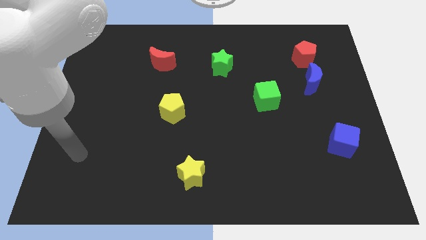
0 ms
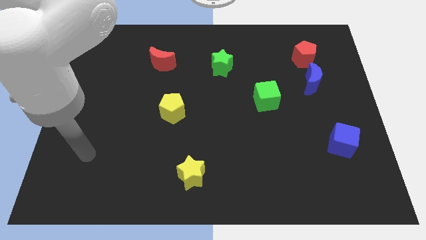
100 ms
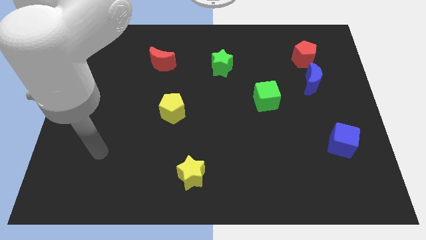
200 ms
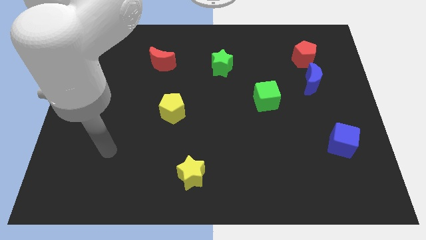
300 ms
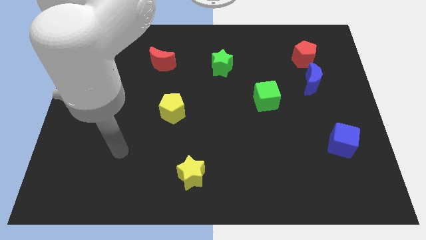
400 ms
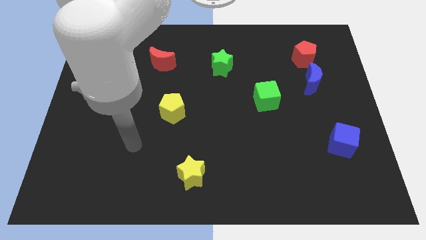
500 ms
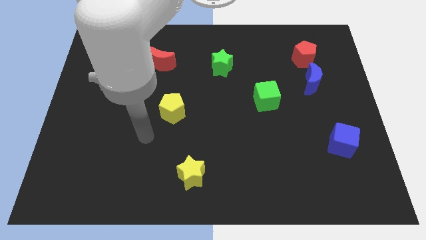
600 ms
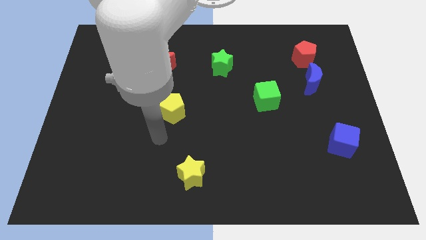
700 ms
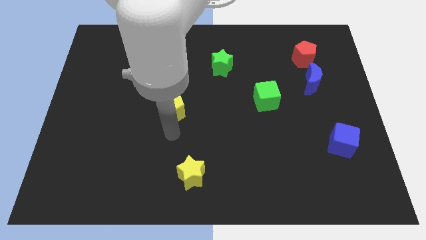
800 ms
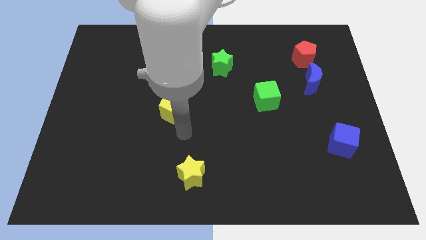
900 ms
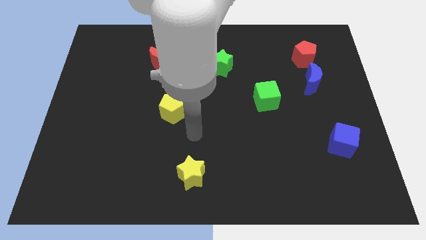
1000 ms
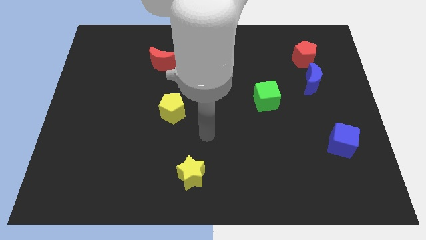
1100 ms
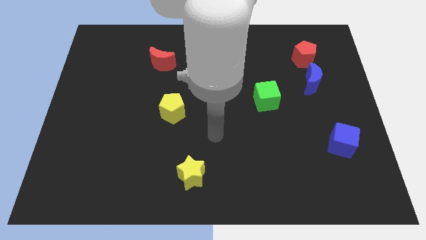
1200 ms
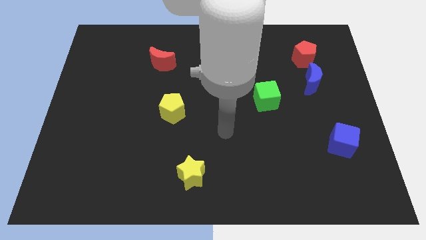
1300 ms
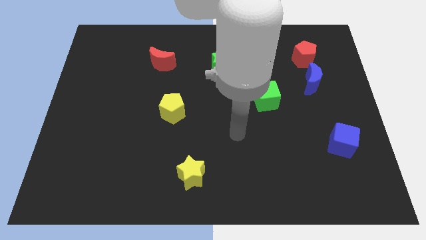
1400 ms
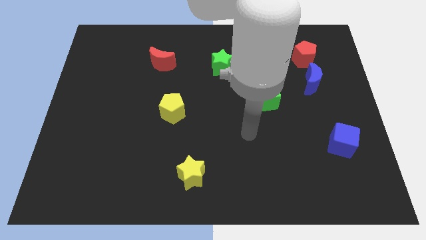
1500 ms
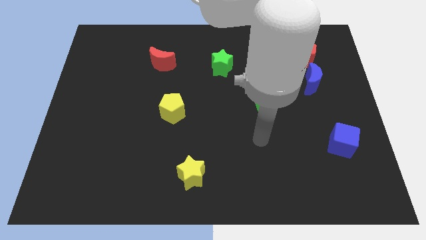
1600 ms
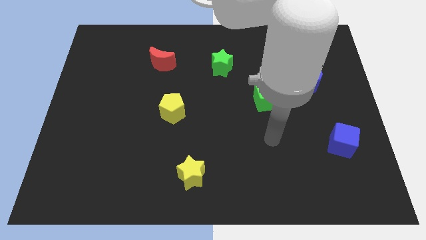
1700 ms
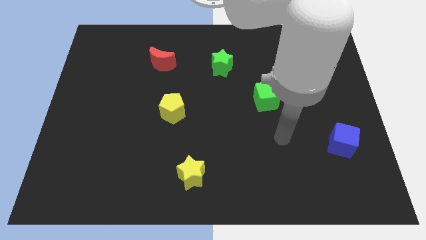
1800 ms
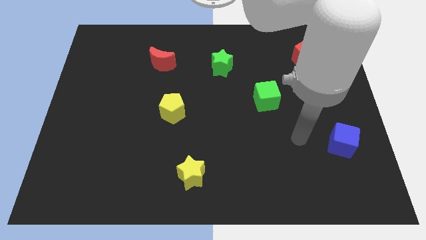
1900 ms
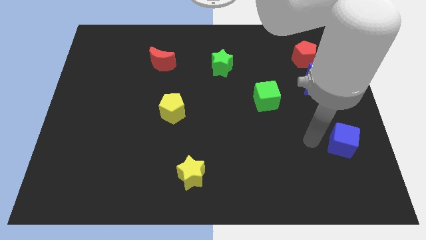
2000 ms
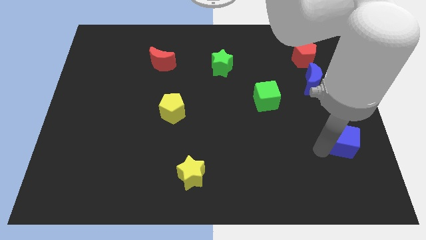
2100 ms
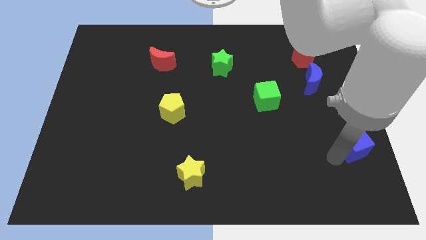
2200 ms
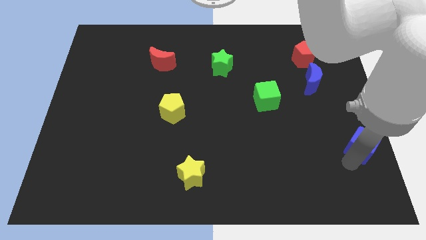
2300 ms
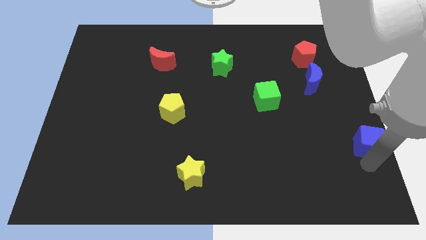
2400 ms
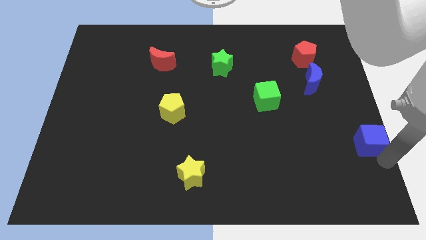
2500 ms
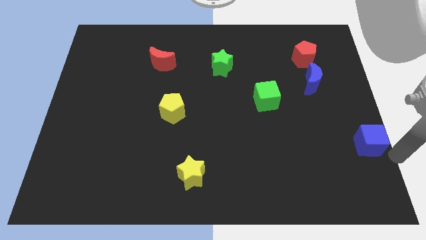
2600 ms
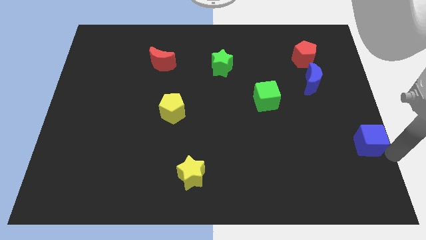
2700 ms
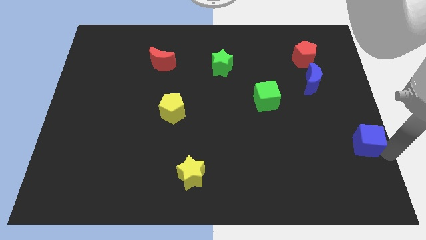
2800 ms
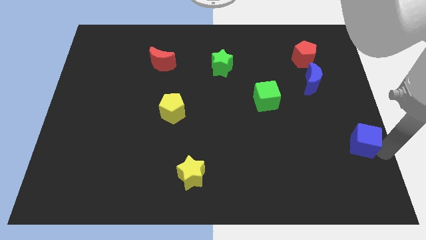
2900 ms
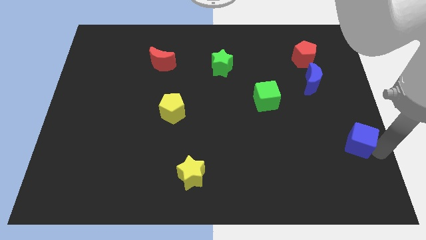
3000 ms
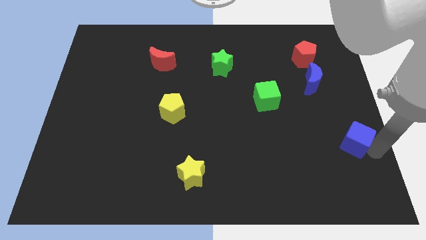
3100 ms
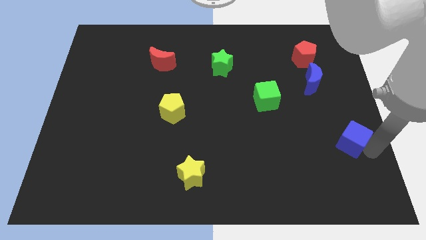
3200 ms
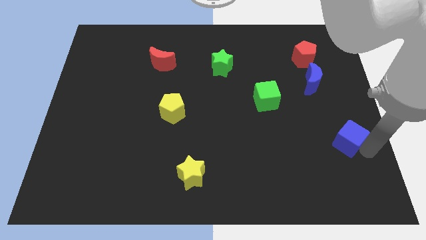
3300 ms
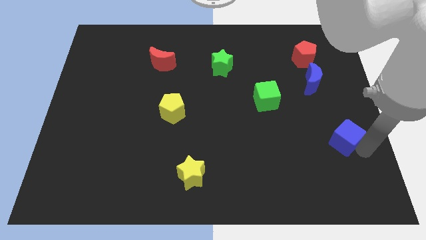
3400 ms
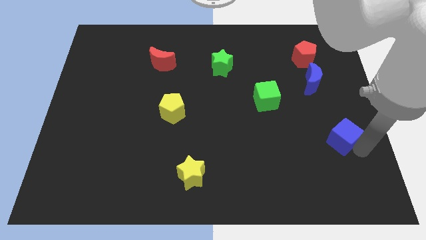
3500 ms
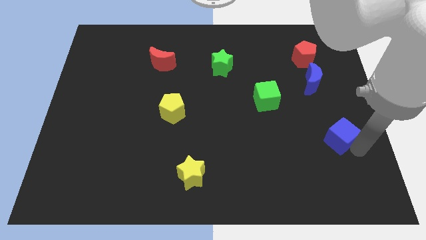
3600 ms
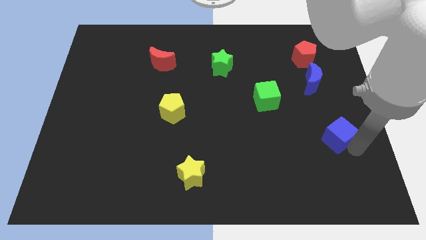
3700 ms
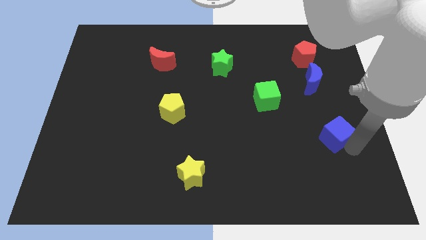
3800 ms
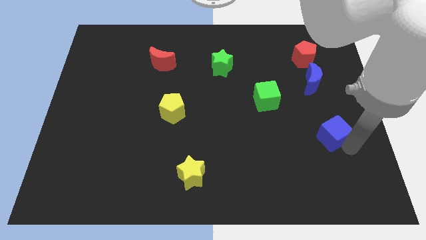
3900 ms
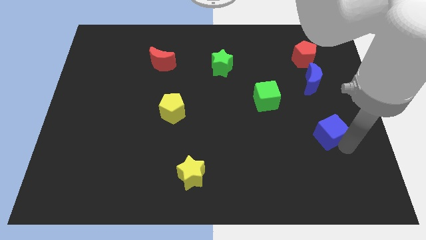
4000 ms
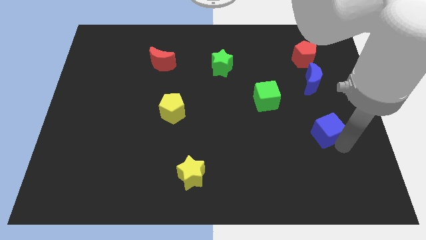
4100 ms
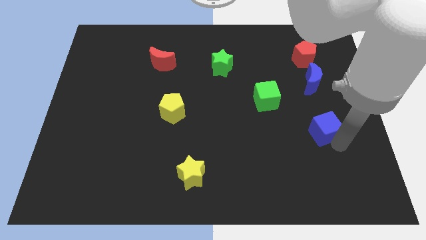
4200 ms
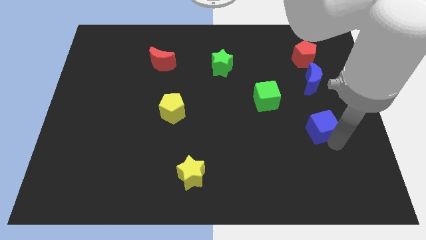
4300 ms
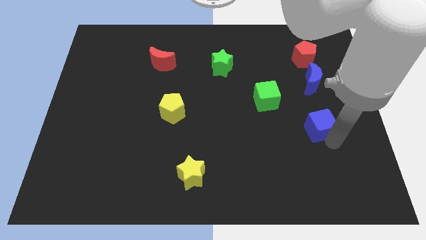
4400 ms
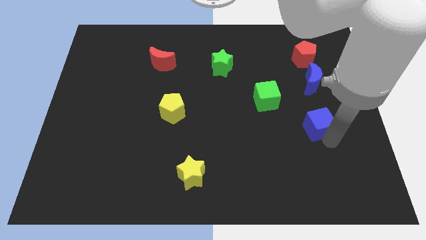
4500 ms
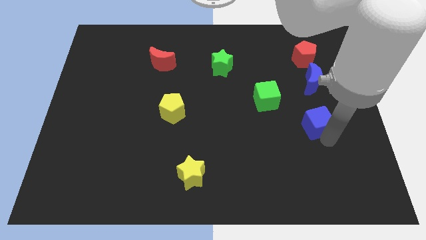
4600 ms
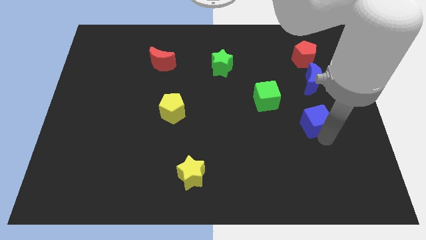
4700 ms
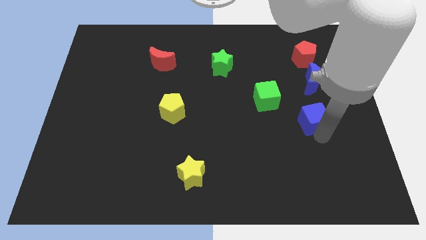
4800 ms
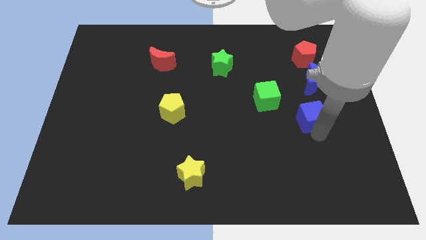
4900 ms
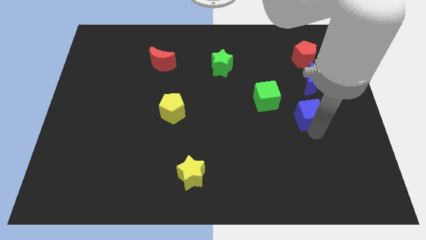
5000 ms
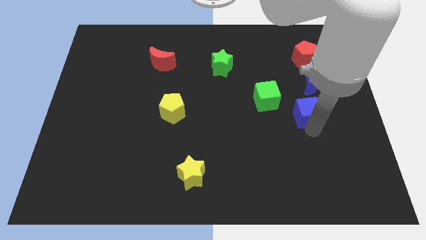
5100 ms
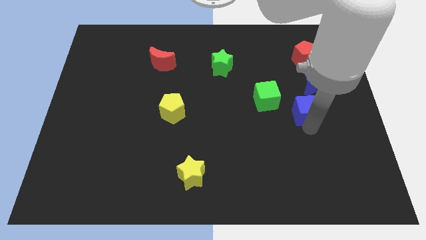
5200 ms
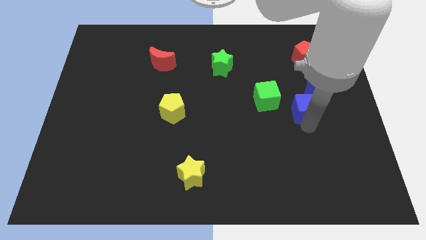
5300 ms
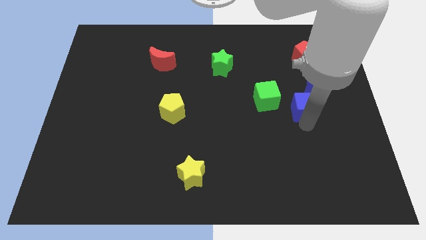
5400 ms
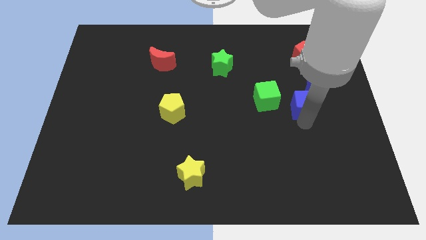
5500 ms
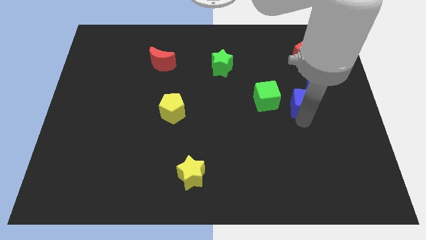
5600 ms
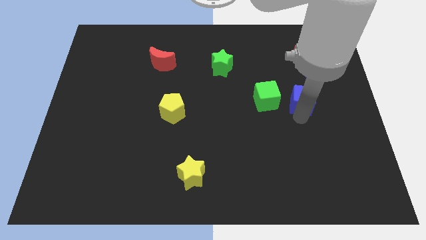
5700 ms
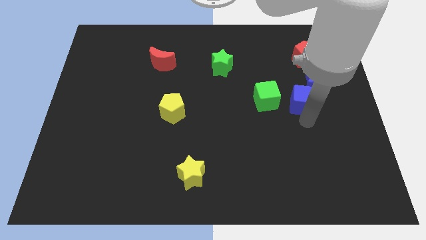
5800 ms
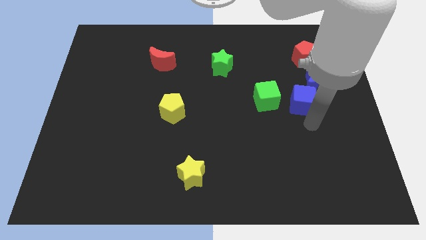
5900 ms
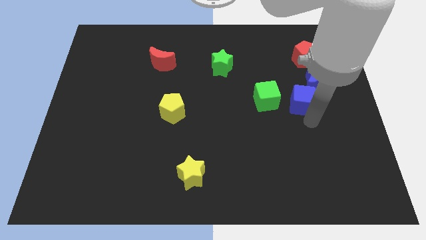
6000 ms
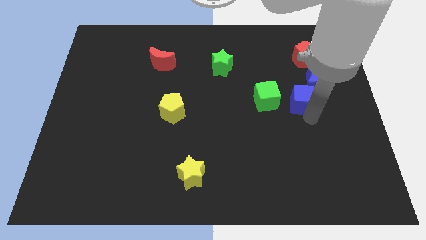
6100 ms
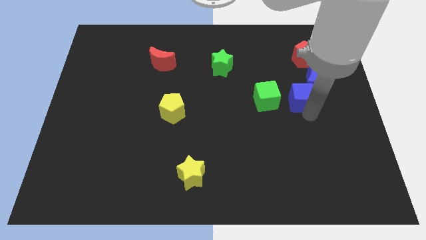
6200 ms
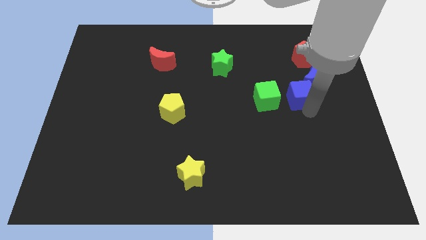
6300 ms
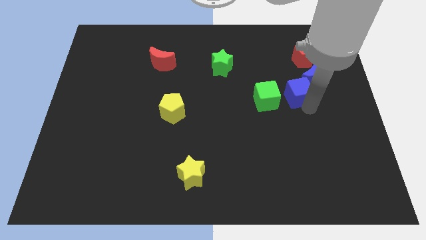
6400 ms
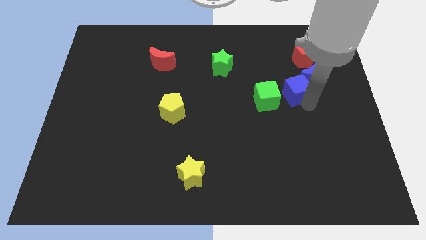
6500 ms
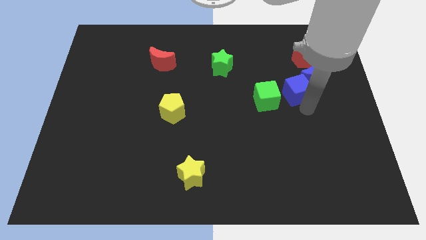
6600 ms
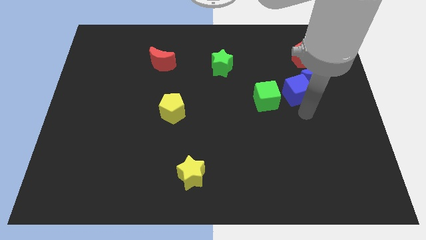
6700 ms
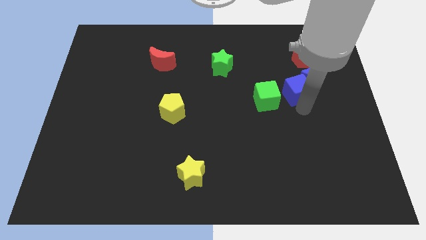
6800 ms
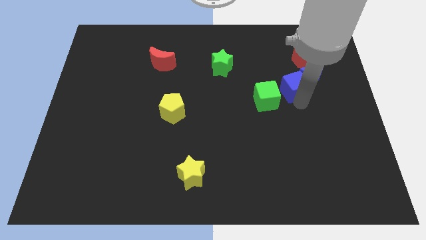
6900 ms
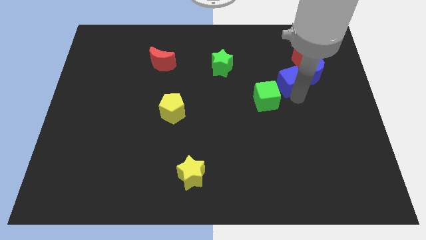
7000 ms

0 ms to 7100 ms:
put the blue cube to the bottom left side of the red pentagon

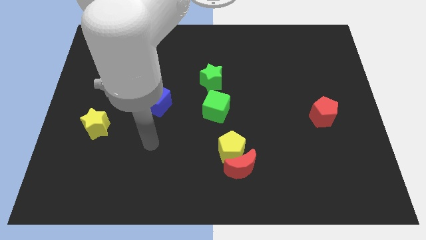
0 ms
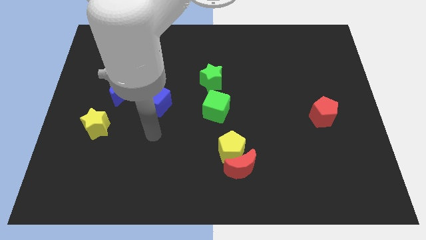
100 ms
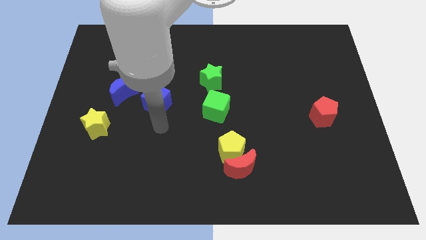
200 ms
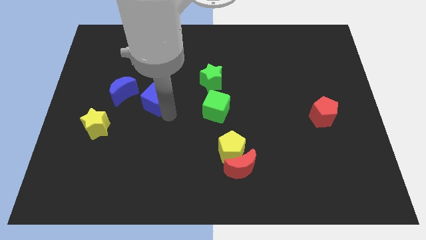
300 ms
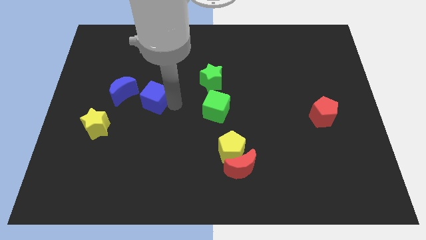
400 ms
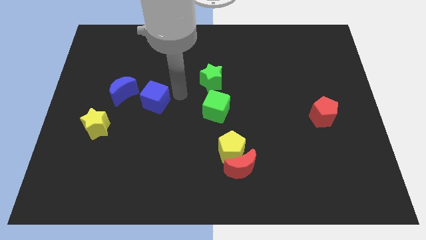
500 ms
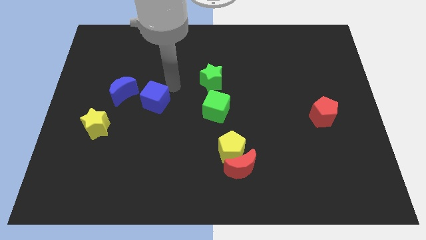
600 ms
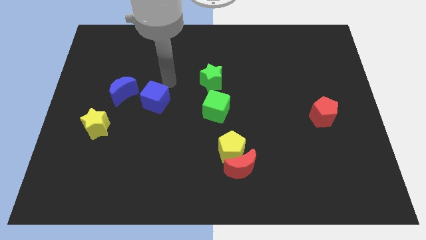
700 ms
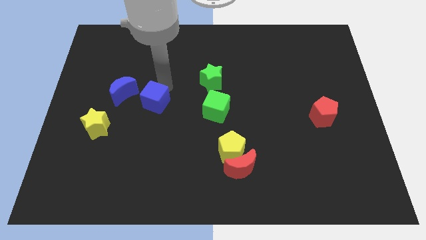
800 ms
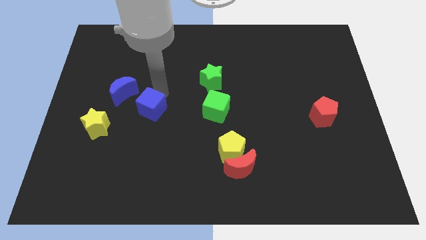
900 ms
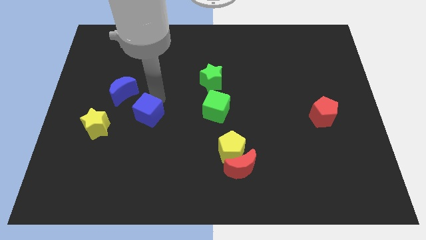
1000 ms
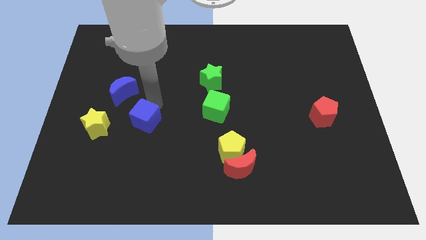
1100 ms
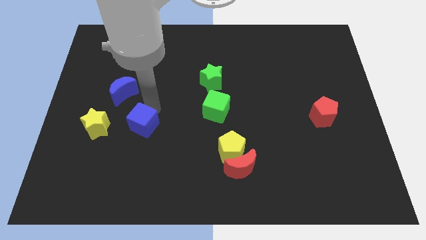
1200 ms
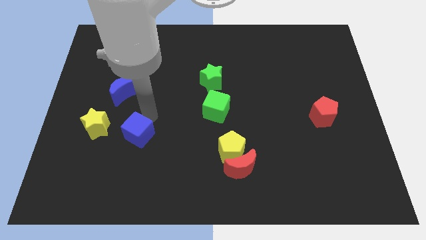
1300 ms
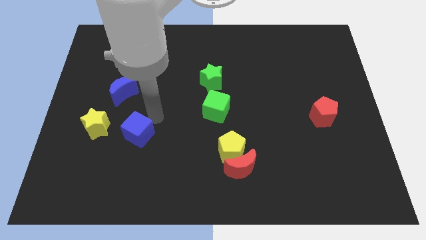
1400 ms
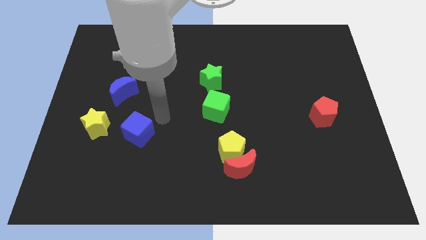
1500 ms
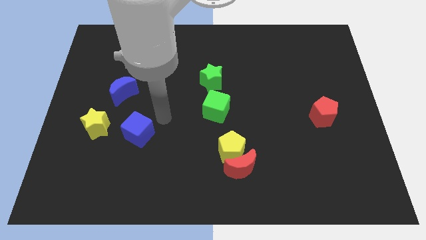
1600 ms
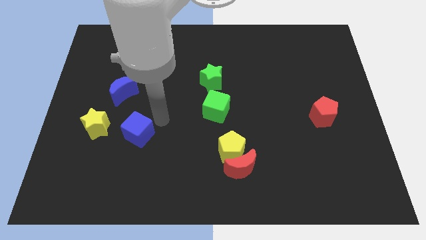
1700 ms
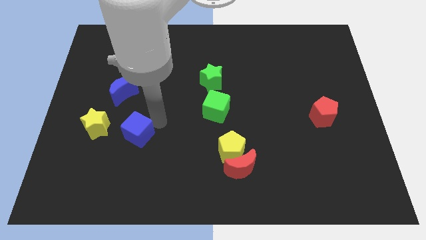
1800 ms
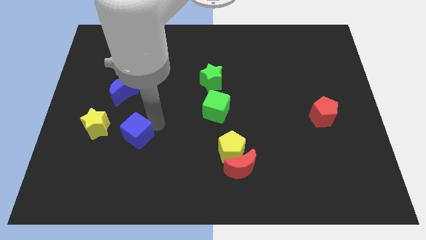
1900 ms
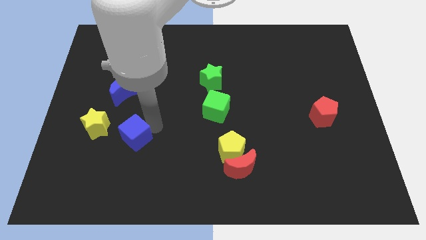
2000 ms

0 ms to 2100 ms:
push the blue cube diagonally down and to the right of the yellow star
